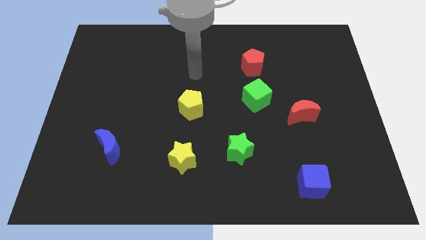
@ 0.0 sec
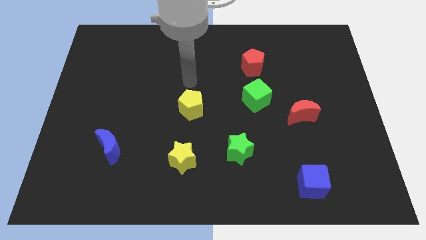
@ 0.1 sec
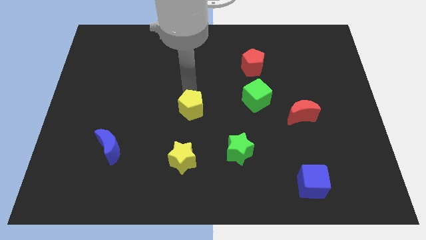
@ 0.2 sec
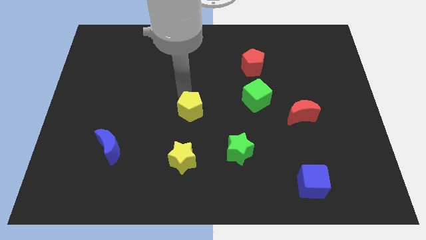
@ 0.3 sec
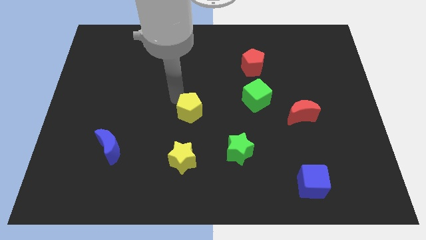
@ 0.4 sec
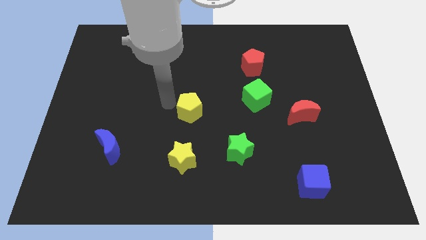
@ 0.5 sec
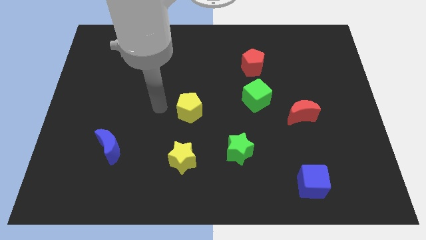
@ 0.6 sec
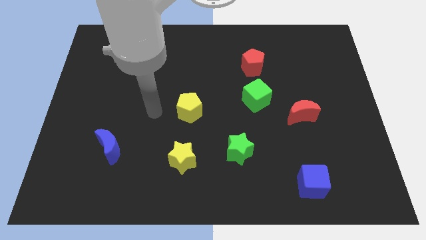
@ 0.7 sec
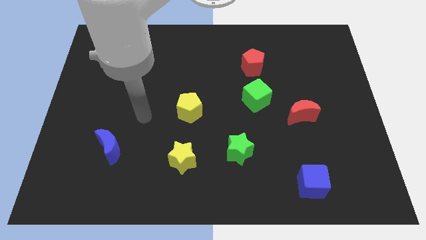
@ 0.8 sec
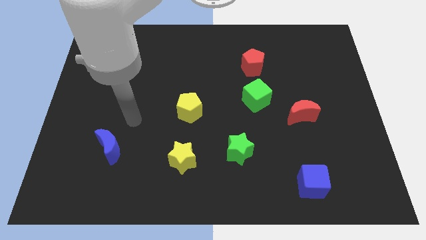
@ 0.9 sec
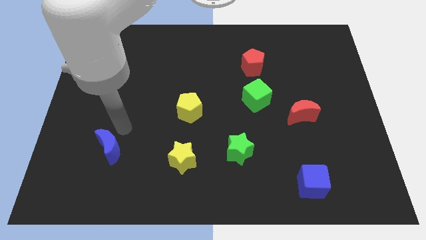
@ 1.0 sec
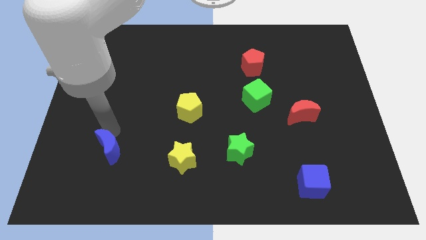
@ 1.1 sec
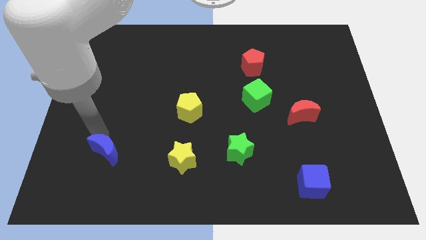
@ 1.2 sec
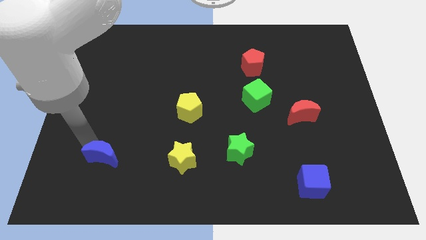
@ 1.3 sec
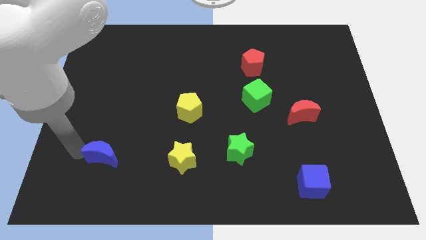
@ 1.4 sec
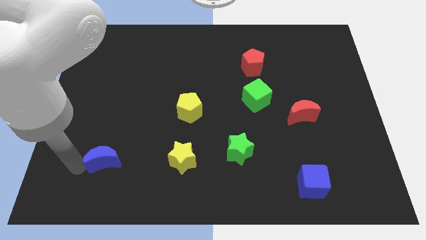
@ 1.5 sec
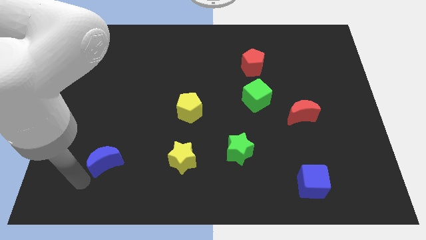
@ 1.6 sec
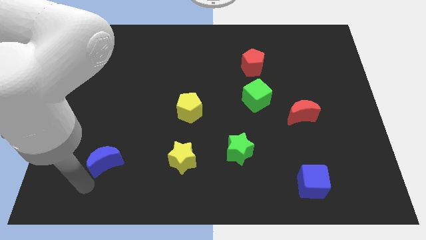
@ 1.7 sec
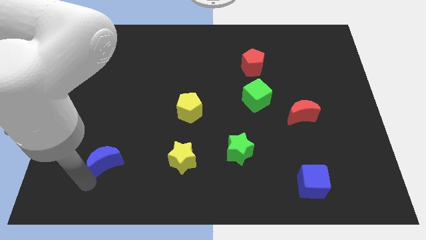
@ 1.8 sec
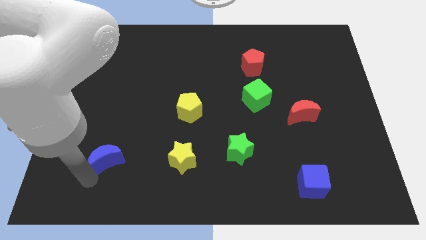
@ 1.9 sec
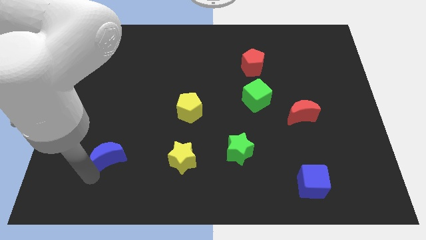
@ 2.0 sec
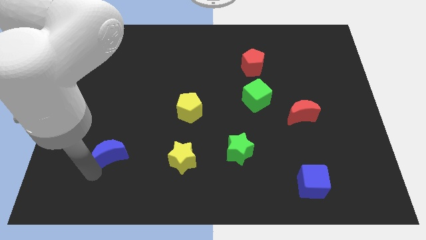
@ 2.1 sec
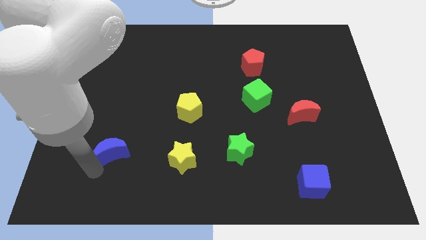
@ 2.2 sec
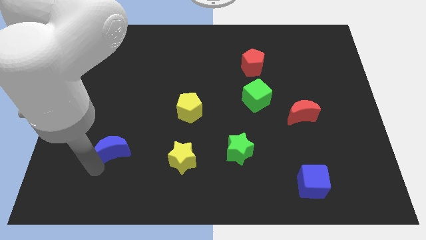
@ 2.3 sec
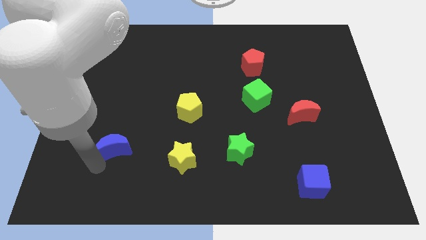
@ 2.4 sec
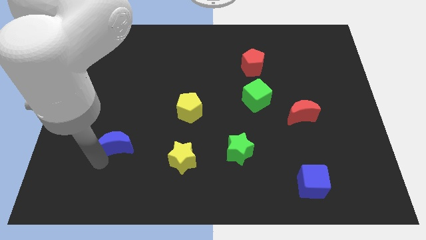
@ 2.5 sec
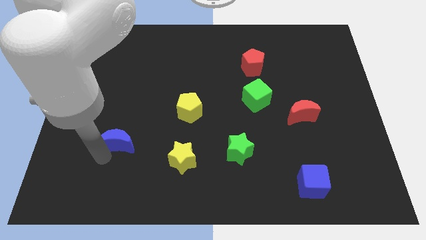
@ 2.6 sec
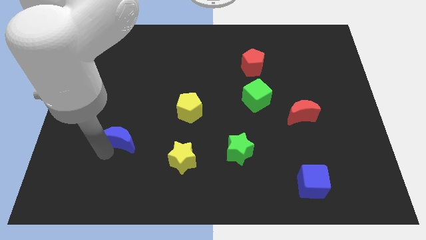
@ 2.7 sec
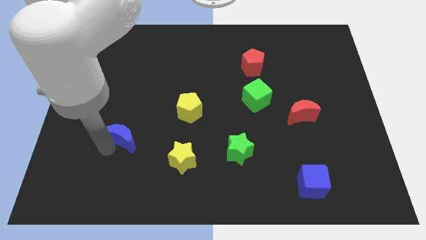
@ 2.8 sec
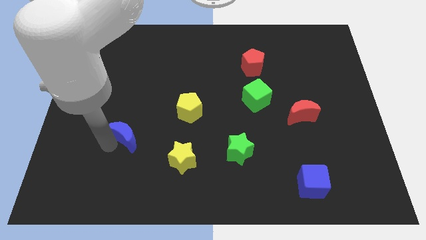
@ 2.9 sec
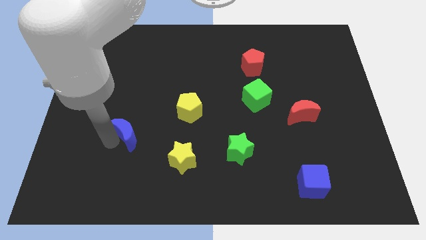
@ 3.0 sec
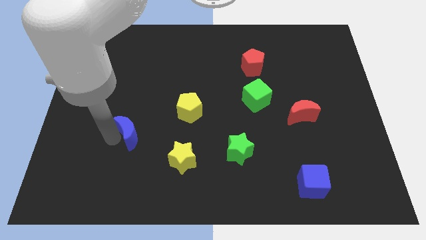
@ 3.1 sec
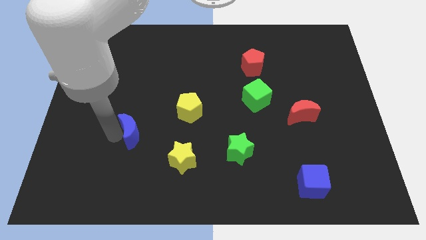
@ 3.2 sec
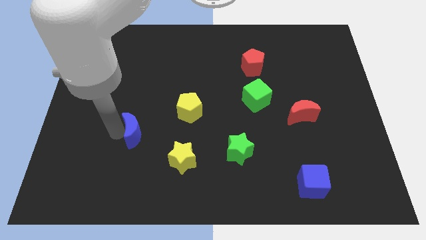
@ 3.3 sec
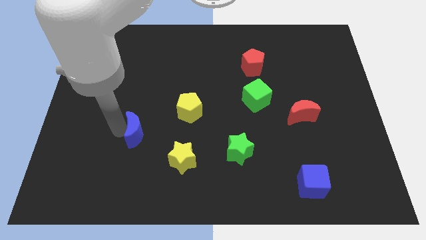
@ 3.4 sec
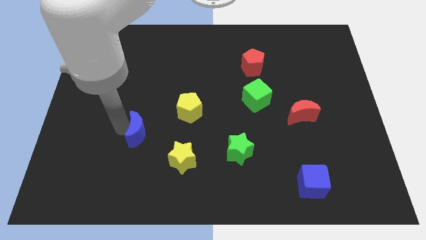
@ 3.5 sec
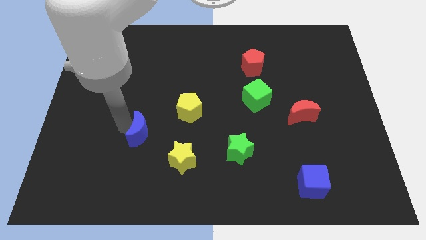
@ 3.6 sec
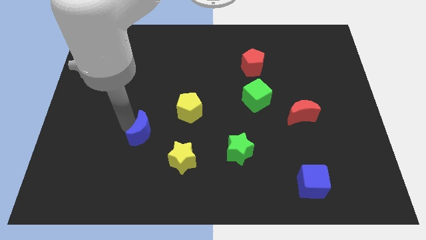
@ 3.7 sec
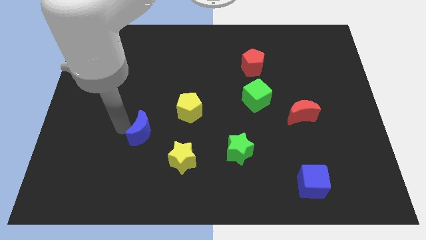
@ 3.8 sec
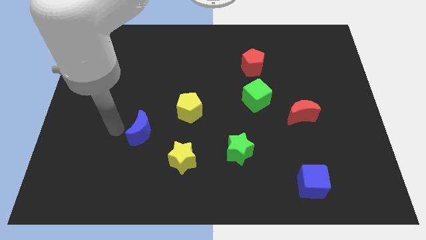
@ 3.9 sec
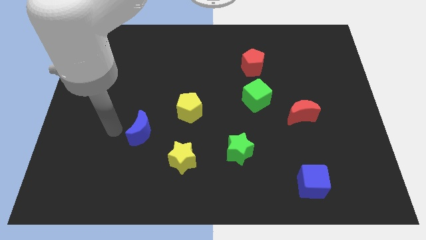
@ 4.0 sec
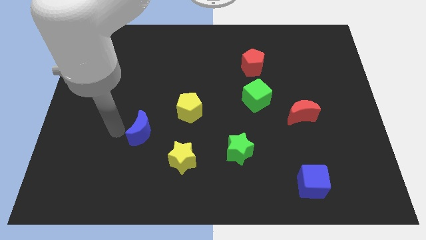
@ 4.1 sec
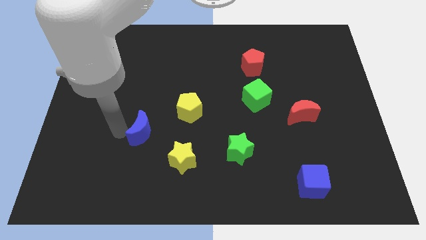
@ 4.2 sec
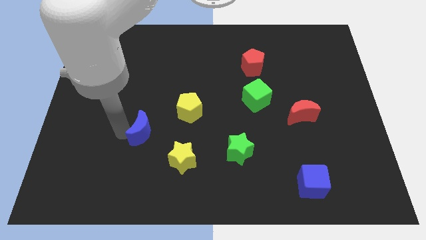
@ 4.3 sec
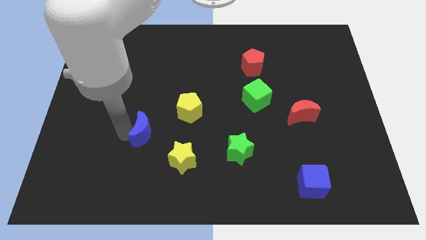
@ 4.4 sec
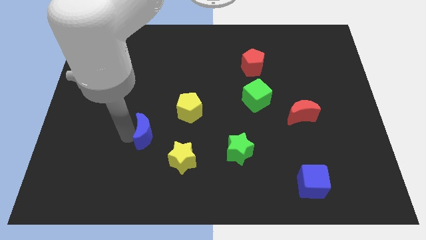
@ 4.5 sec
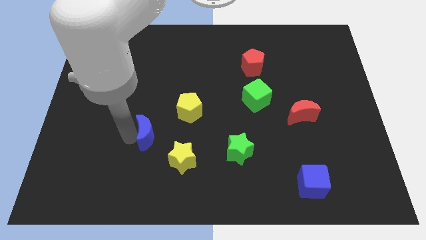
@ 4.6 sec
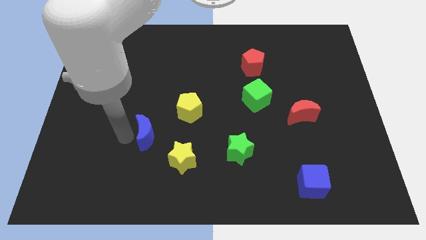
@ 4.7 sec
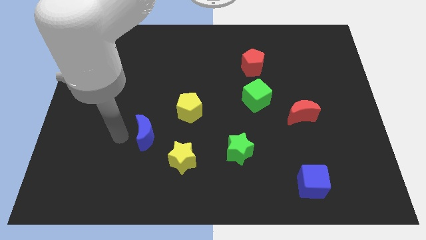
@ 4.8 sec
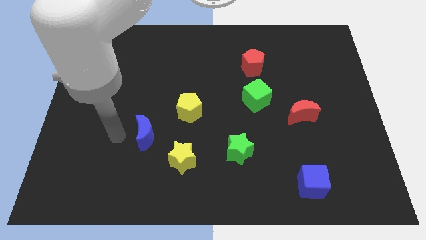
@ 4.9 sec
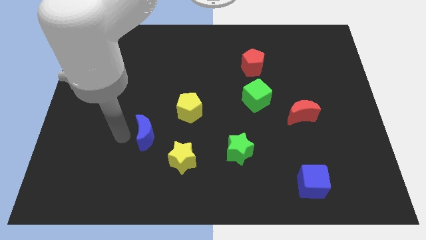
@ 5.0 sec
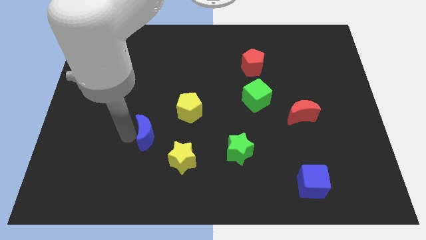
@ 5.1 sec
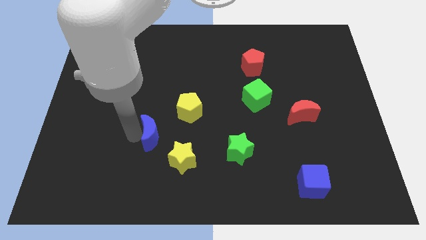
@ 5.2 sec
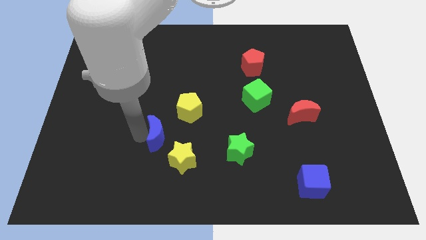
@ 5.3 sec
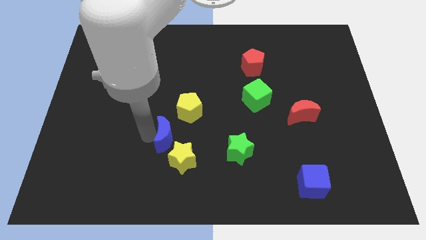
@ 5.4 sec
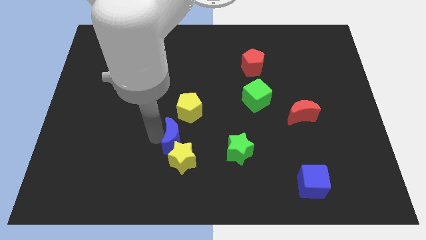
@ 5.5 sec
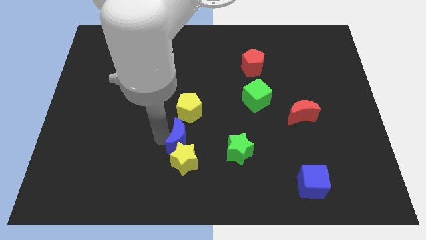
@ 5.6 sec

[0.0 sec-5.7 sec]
put the blue moon to the top right of the yellow star

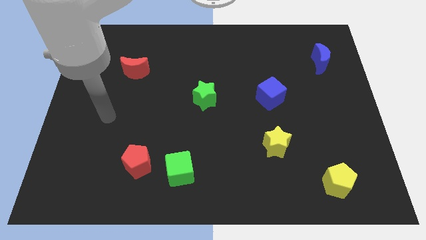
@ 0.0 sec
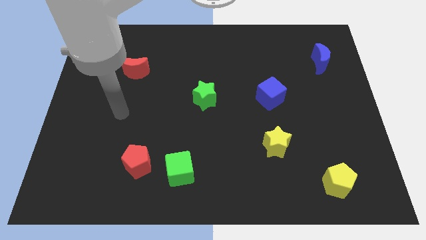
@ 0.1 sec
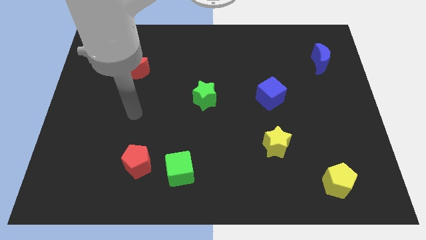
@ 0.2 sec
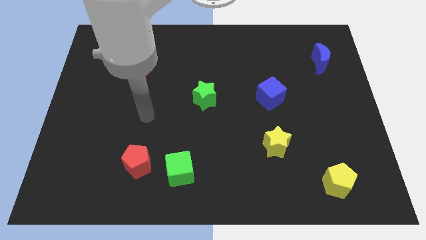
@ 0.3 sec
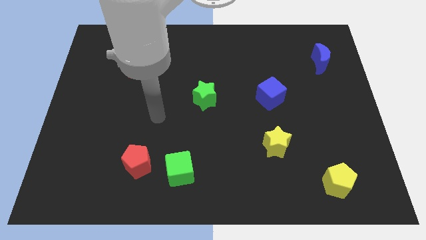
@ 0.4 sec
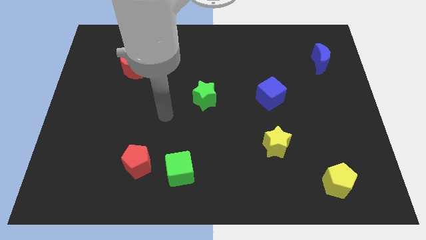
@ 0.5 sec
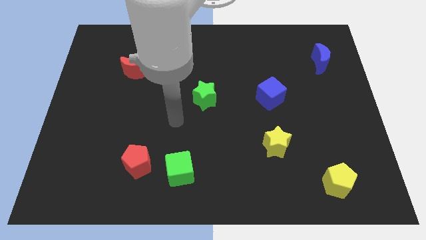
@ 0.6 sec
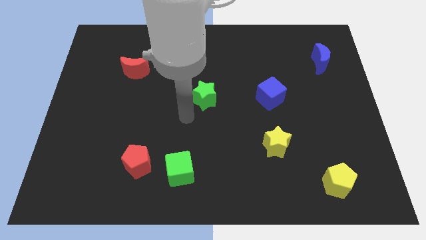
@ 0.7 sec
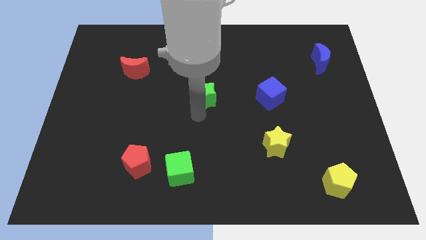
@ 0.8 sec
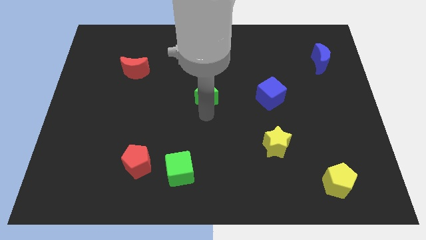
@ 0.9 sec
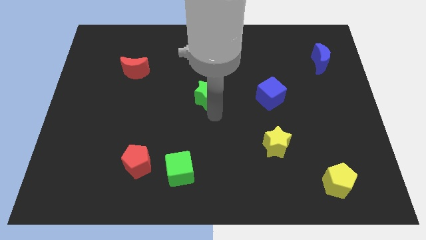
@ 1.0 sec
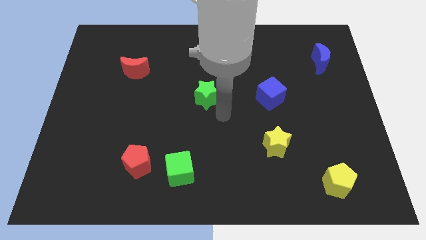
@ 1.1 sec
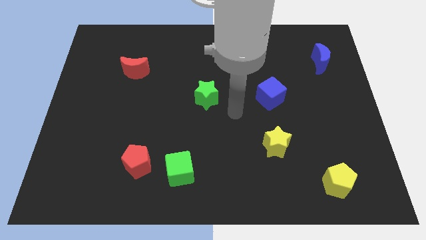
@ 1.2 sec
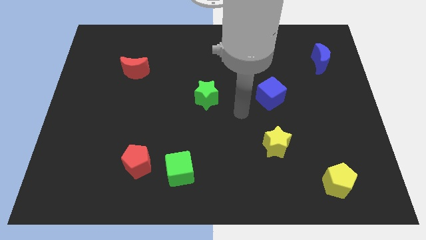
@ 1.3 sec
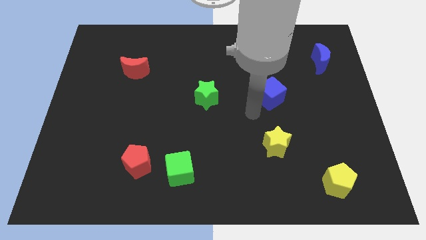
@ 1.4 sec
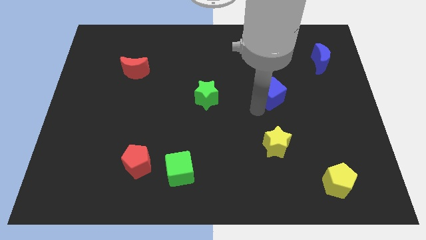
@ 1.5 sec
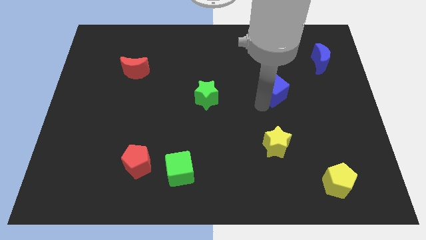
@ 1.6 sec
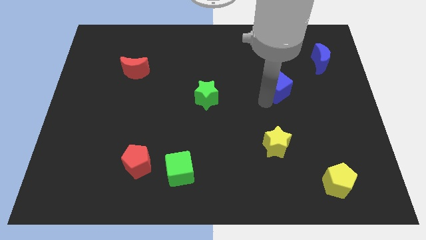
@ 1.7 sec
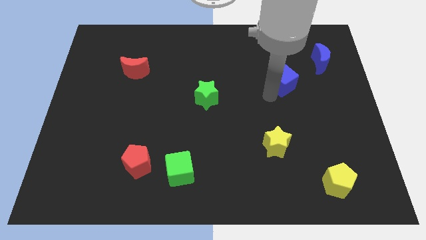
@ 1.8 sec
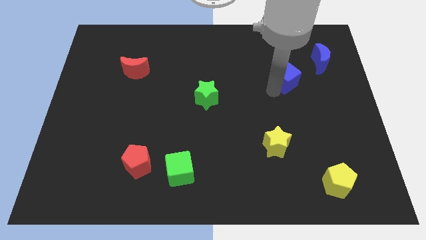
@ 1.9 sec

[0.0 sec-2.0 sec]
move the blue cube to the bottom left of the blue moon
